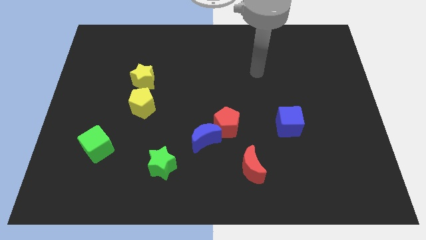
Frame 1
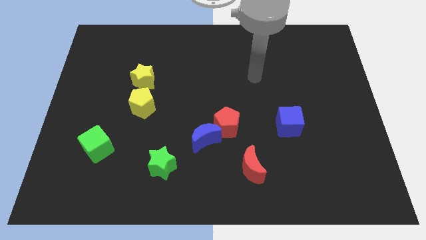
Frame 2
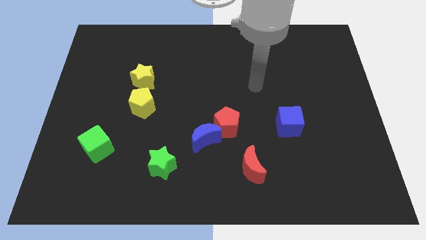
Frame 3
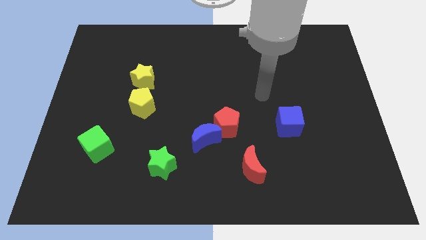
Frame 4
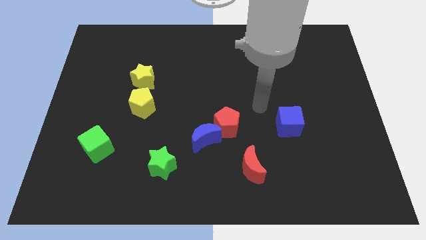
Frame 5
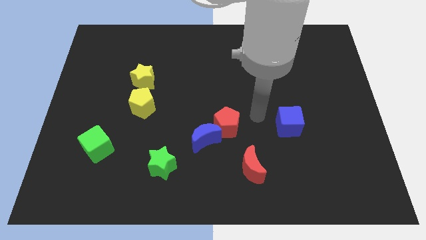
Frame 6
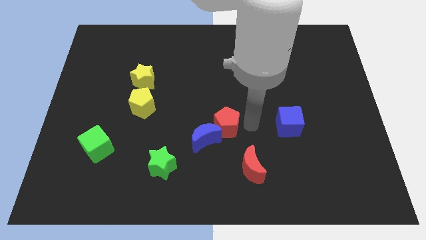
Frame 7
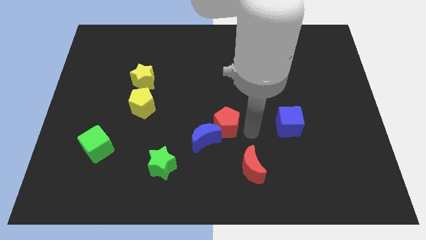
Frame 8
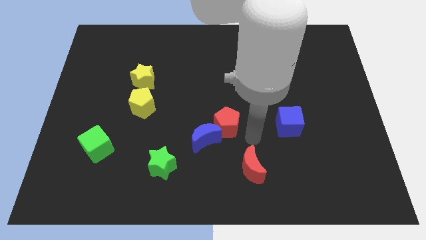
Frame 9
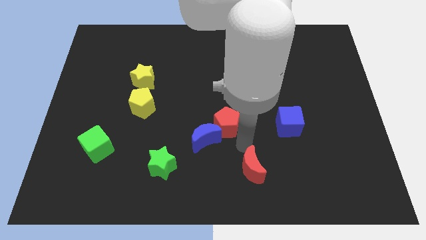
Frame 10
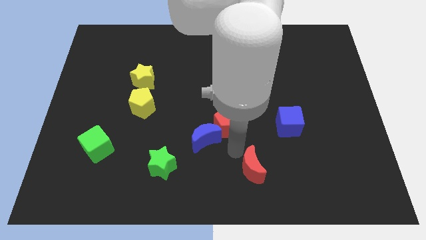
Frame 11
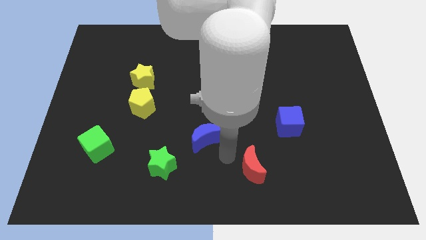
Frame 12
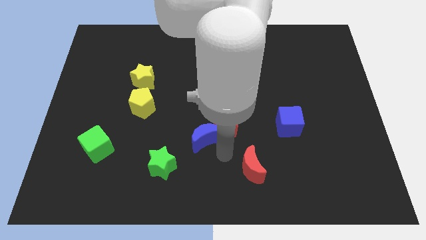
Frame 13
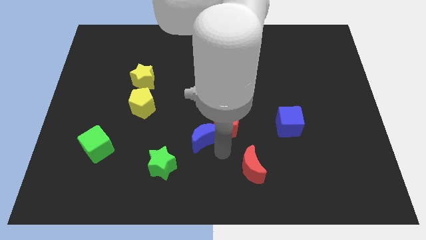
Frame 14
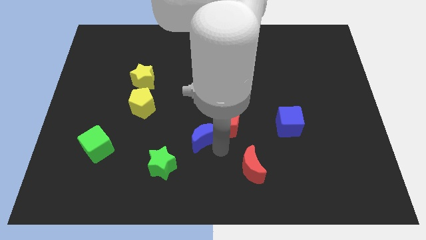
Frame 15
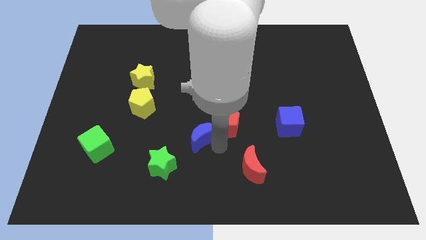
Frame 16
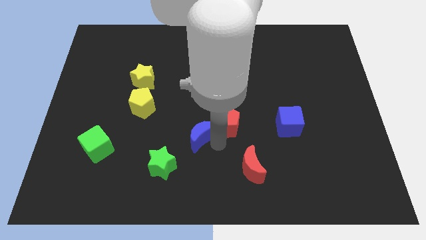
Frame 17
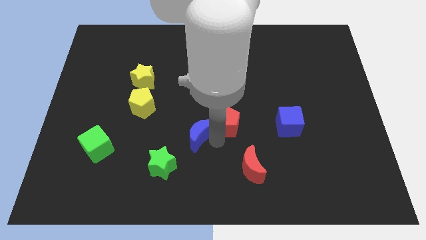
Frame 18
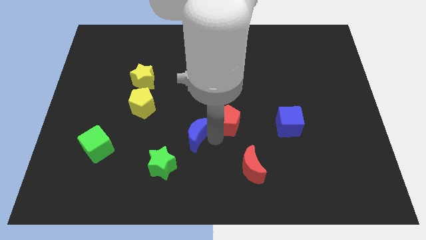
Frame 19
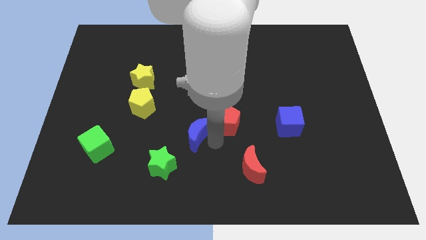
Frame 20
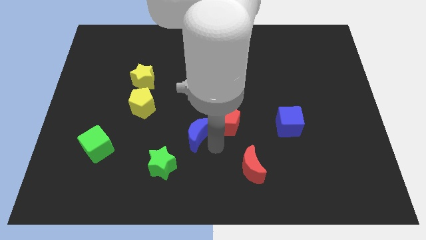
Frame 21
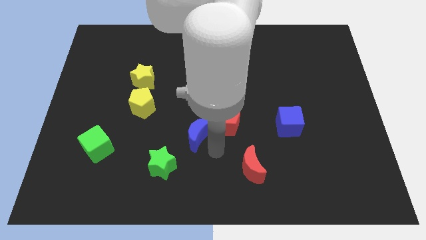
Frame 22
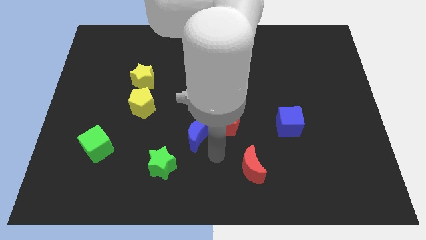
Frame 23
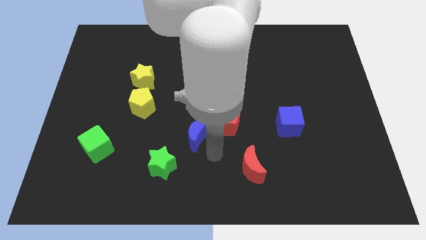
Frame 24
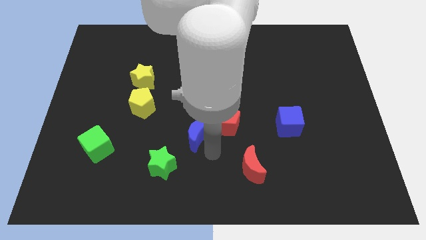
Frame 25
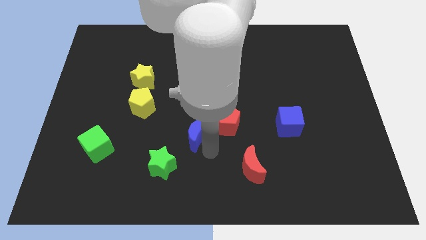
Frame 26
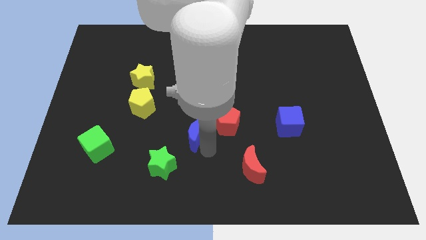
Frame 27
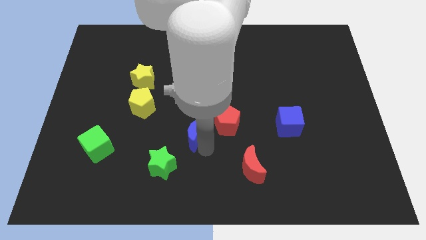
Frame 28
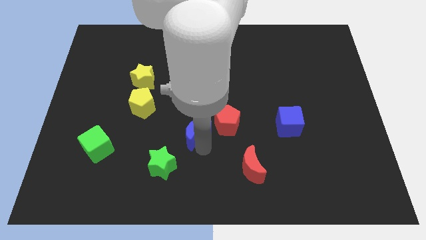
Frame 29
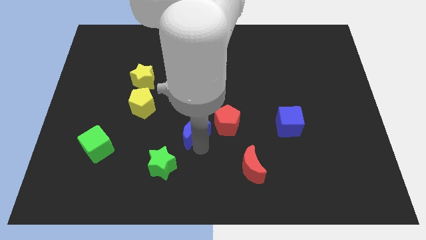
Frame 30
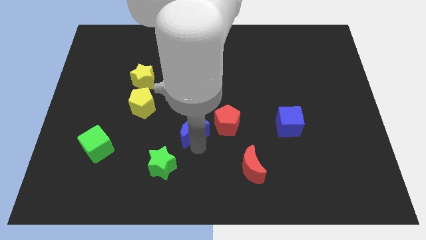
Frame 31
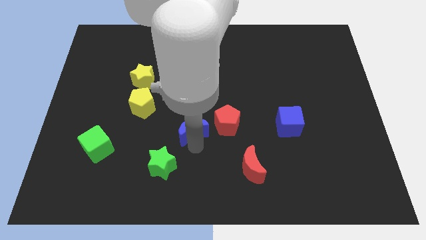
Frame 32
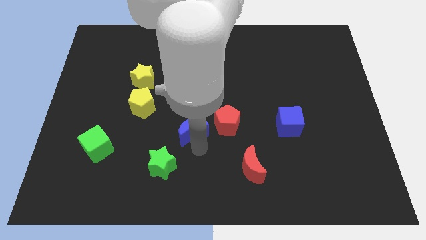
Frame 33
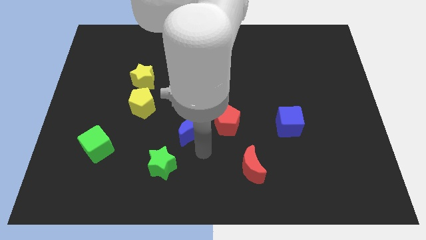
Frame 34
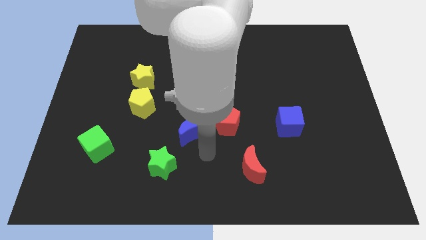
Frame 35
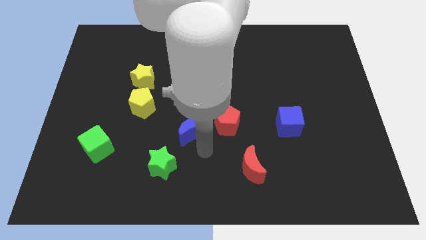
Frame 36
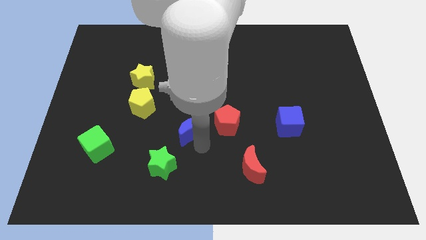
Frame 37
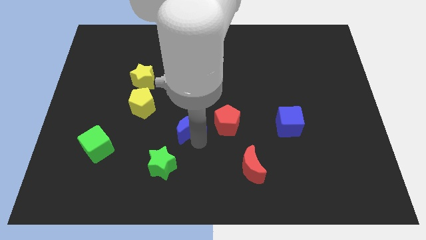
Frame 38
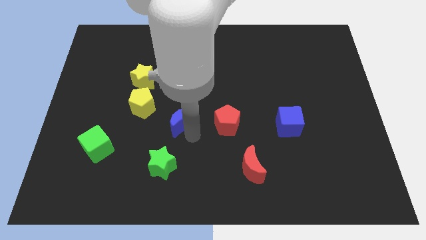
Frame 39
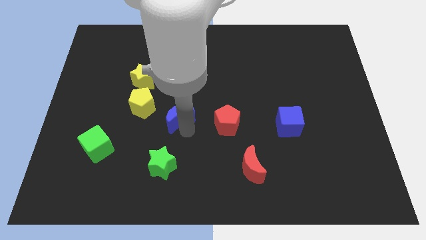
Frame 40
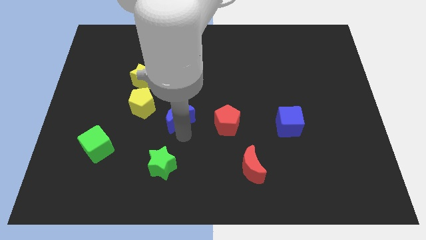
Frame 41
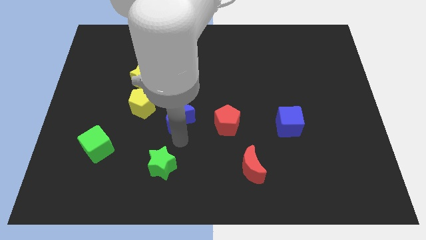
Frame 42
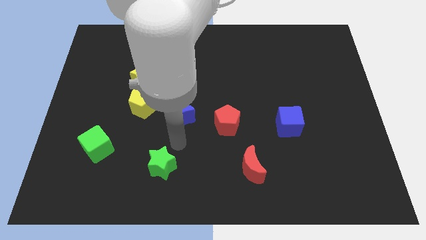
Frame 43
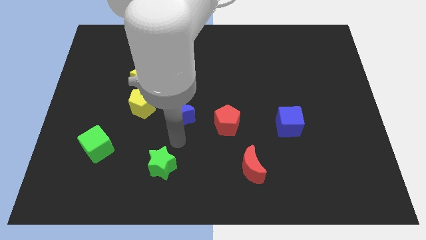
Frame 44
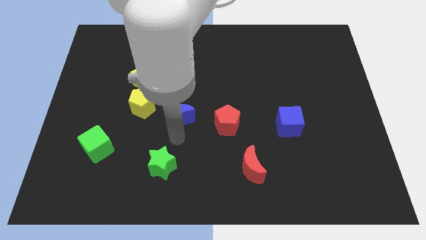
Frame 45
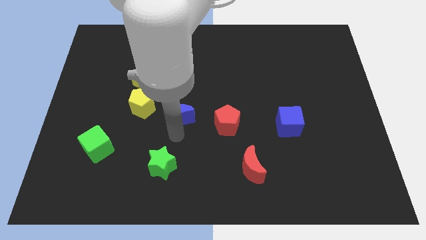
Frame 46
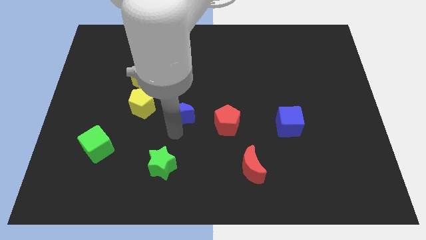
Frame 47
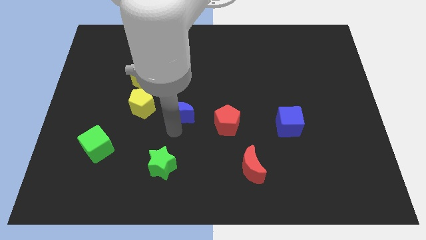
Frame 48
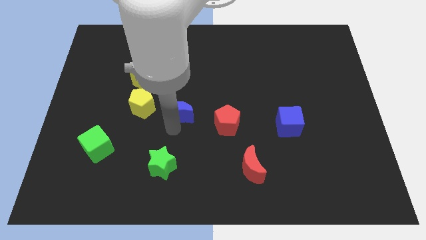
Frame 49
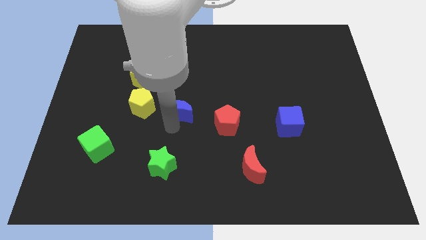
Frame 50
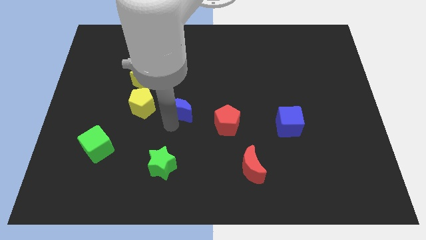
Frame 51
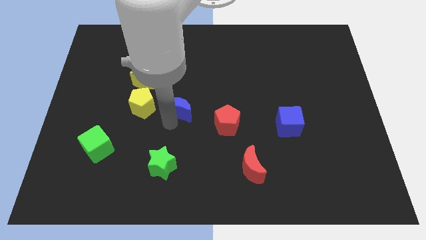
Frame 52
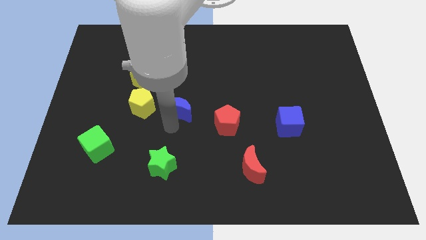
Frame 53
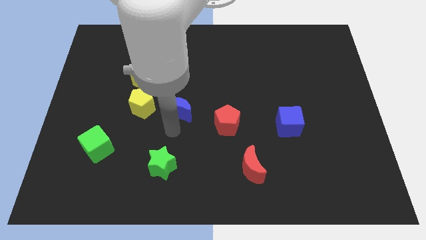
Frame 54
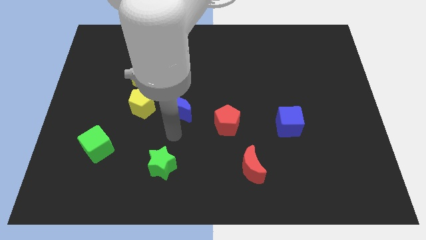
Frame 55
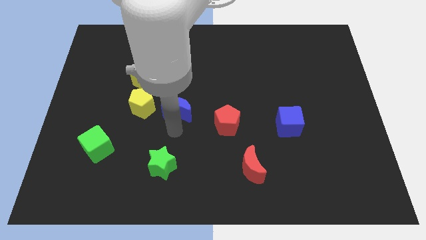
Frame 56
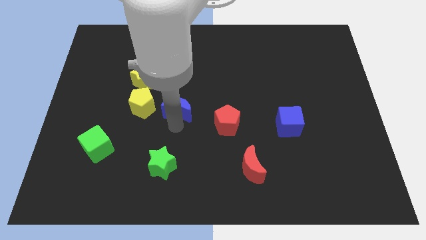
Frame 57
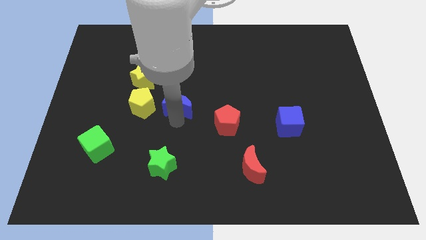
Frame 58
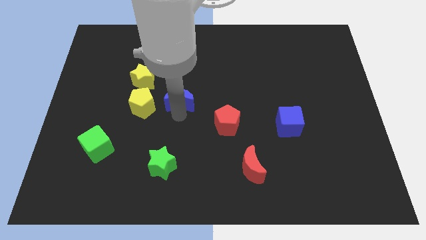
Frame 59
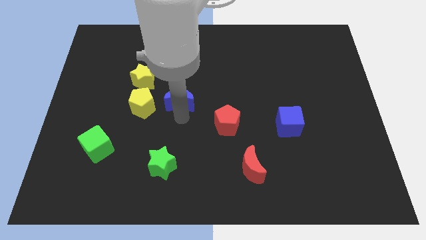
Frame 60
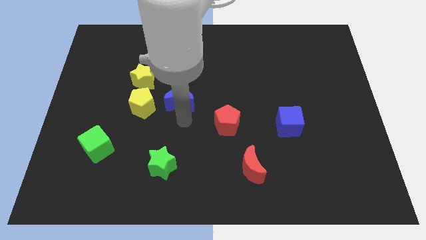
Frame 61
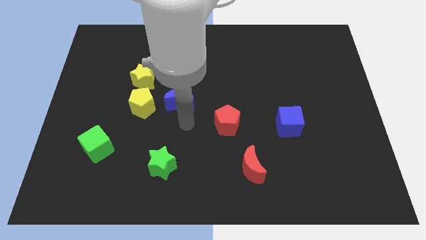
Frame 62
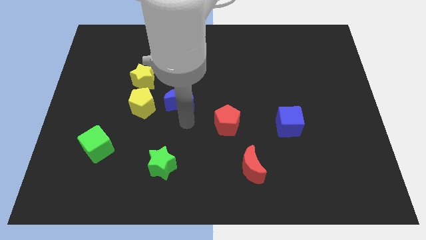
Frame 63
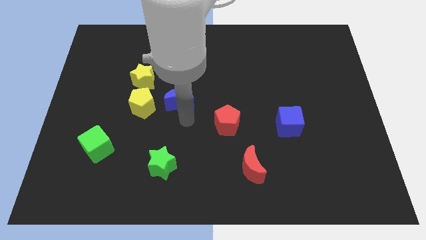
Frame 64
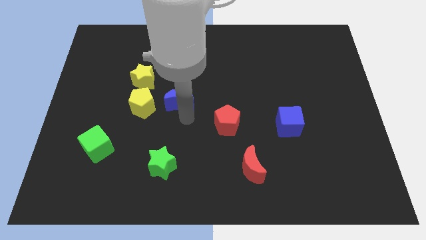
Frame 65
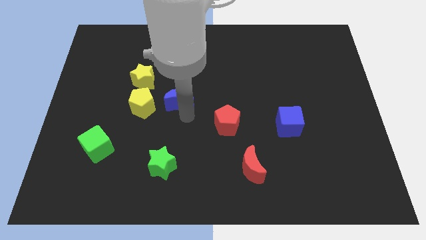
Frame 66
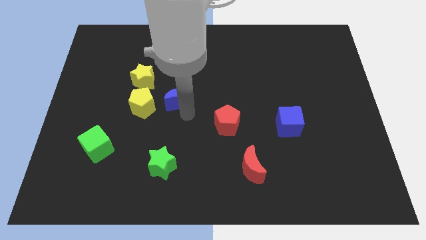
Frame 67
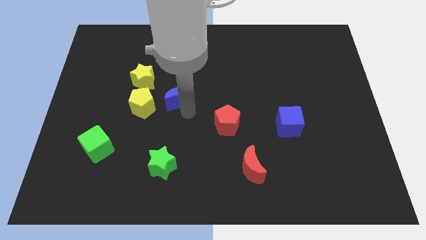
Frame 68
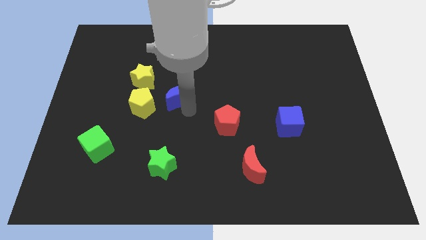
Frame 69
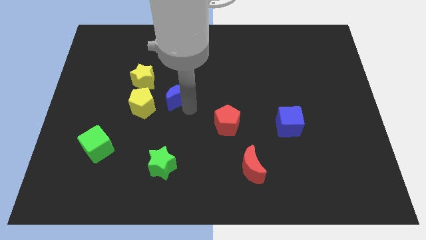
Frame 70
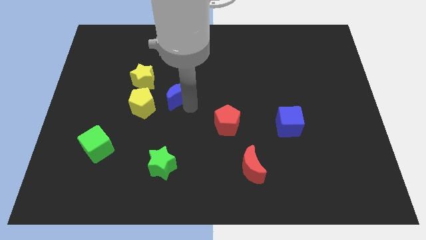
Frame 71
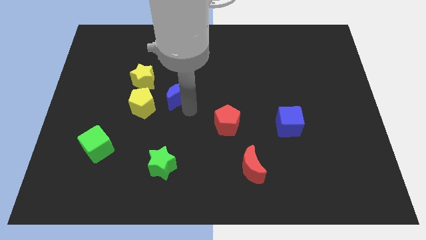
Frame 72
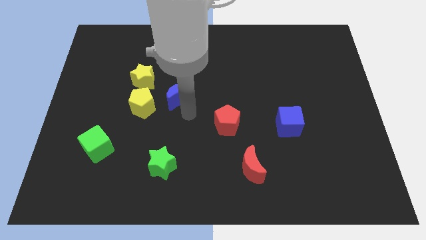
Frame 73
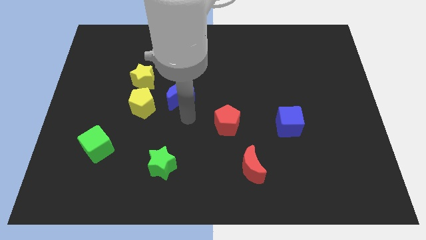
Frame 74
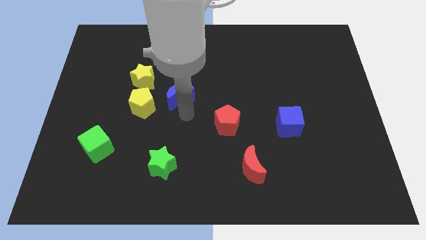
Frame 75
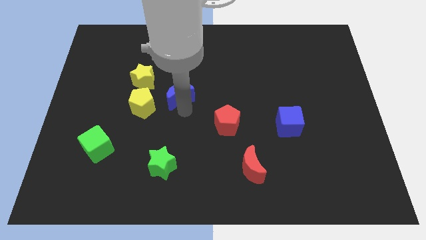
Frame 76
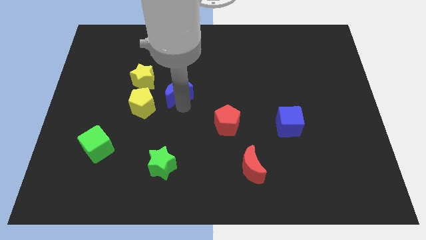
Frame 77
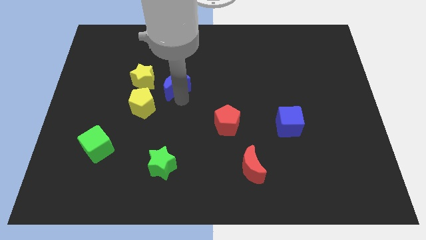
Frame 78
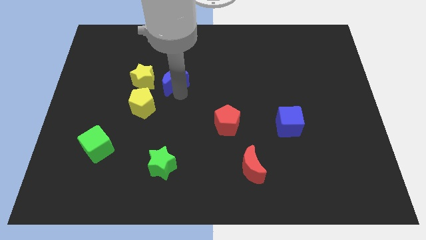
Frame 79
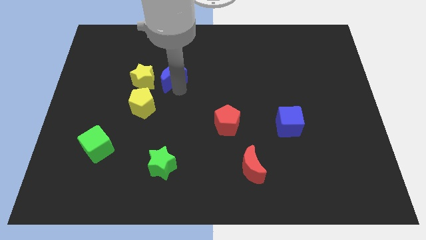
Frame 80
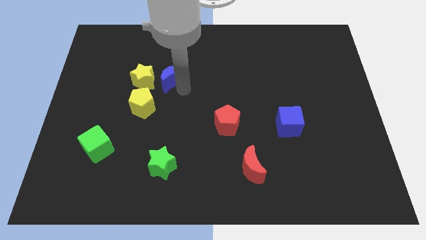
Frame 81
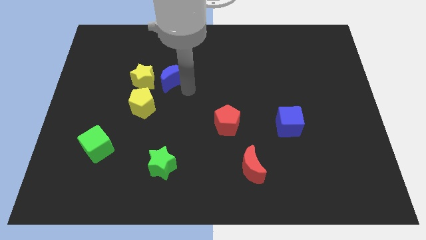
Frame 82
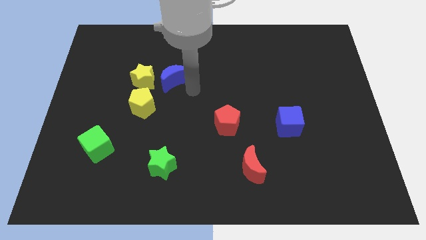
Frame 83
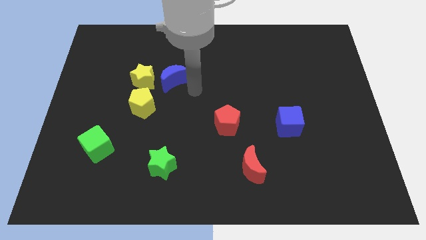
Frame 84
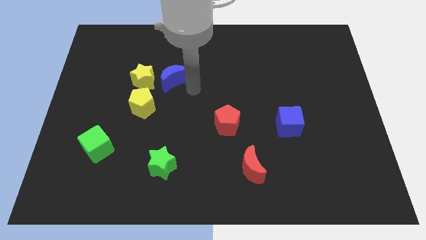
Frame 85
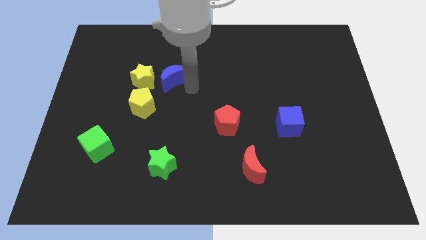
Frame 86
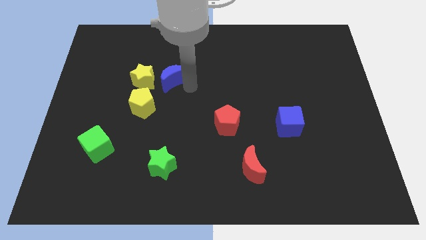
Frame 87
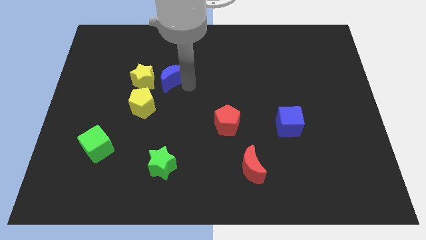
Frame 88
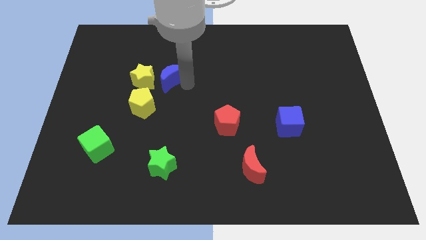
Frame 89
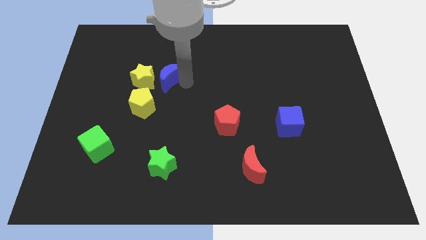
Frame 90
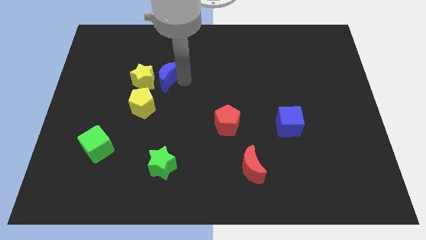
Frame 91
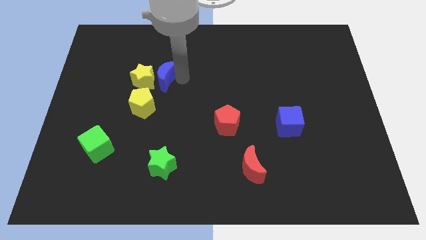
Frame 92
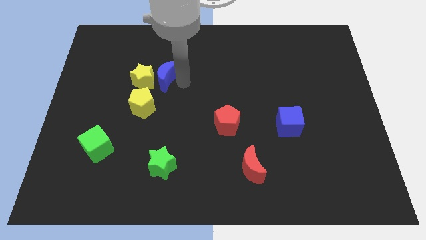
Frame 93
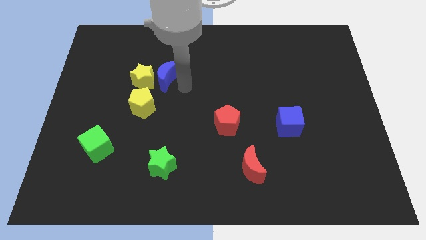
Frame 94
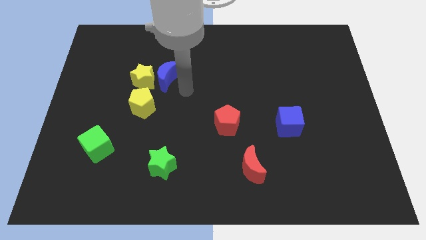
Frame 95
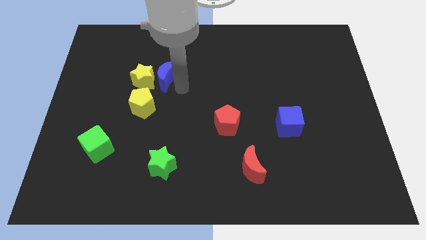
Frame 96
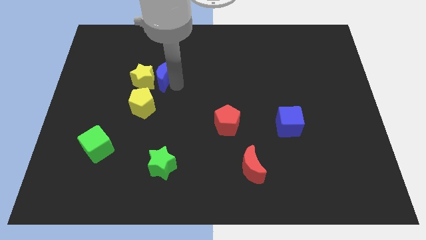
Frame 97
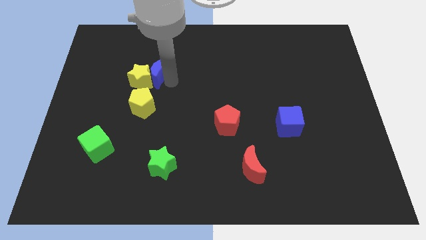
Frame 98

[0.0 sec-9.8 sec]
move the blue moon diagonally upwards and to the left
